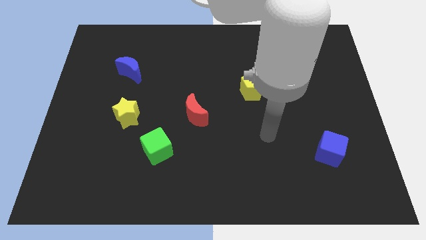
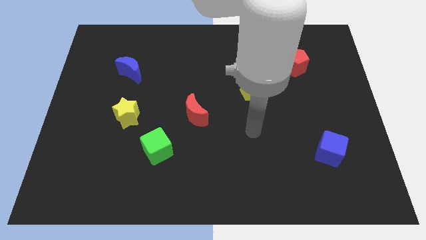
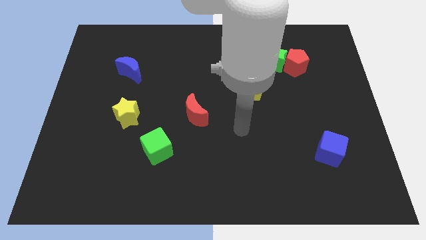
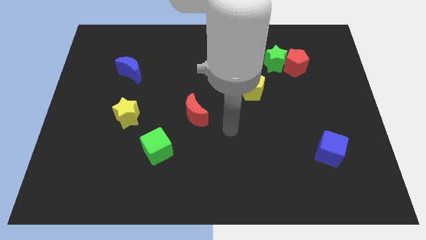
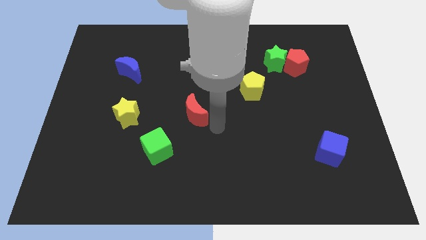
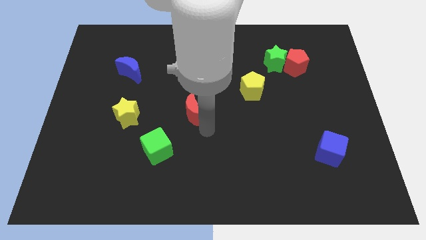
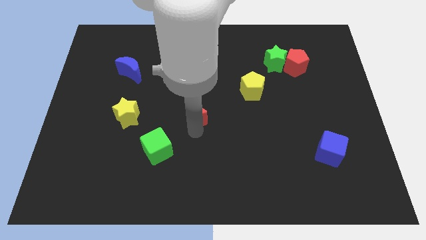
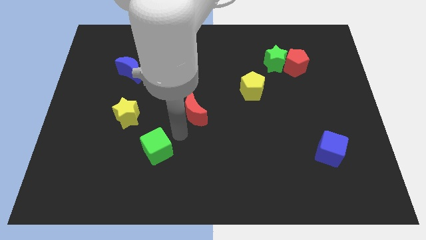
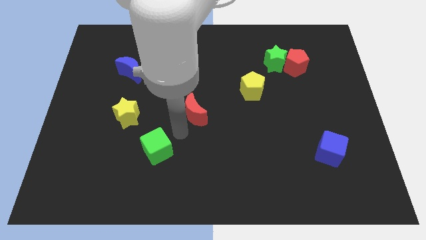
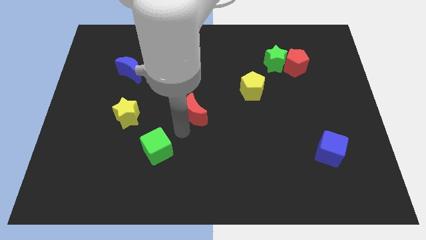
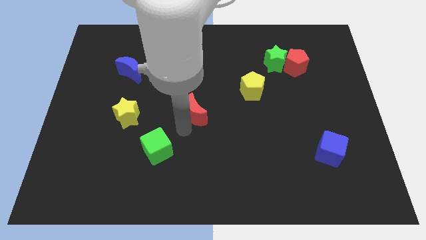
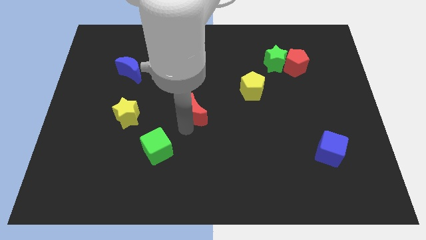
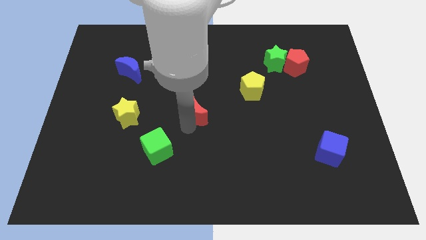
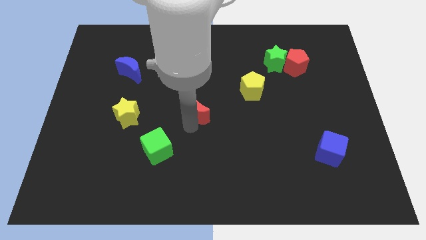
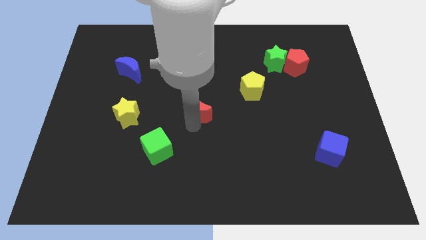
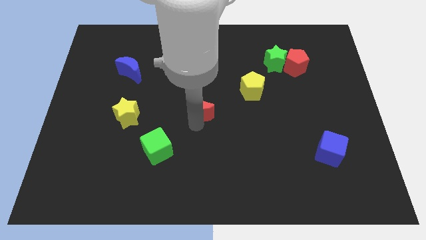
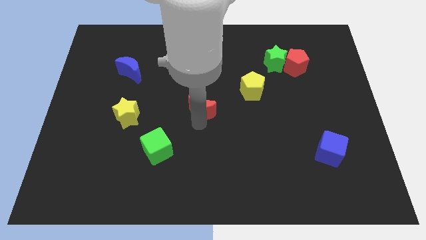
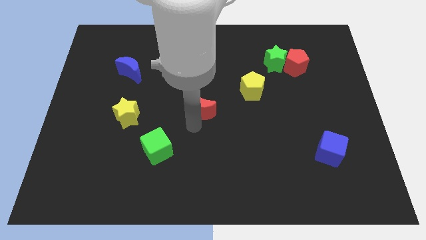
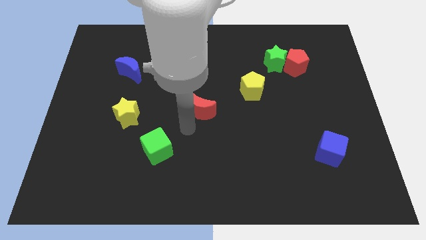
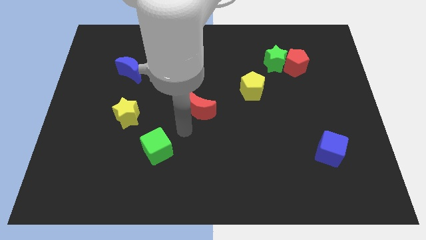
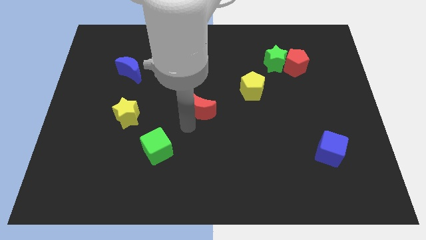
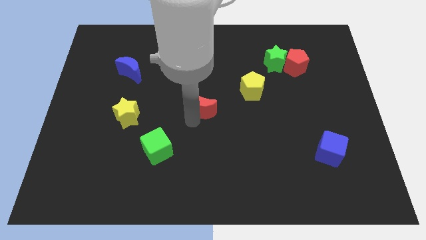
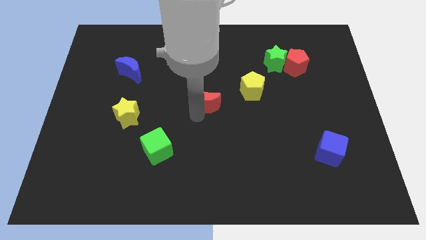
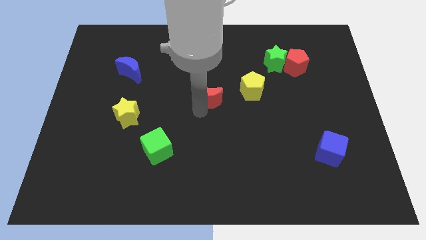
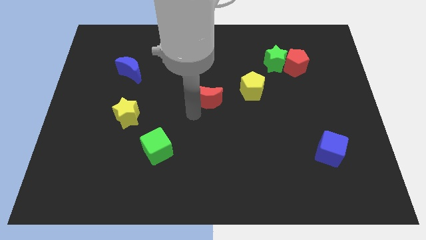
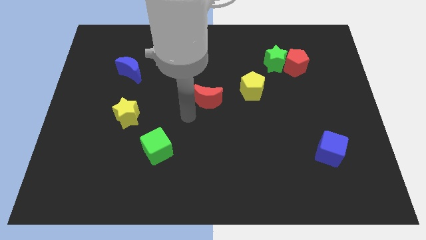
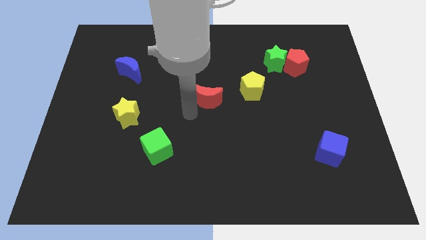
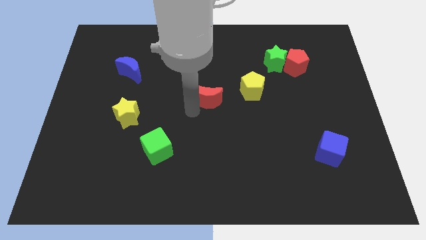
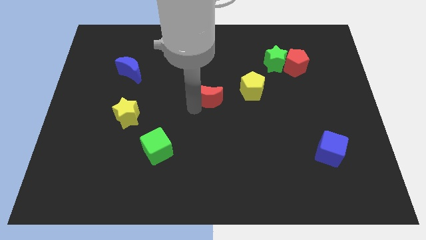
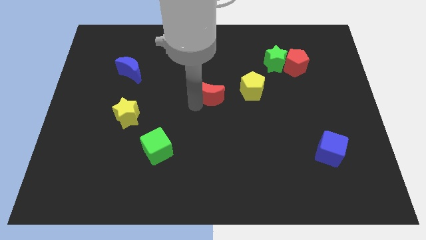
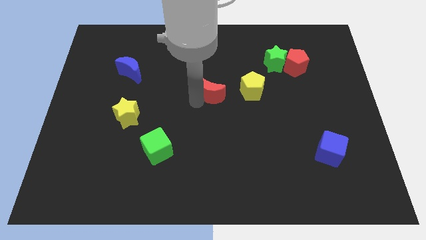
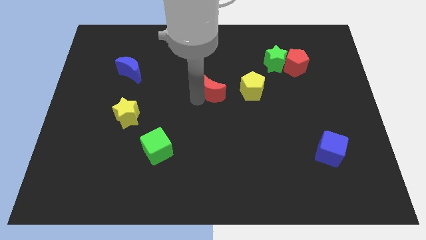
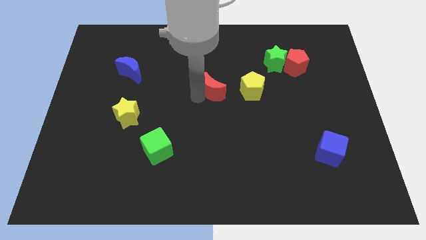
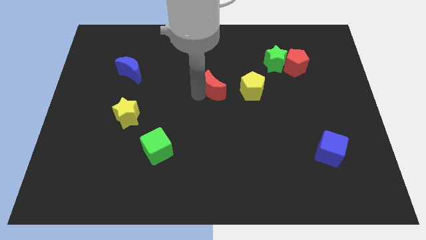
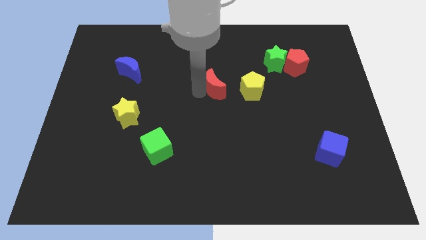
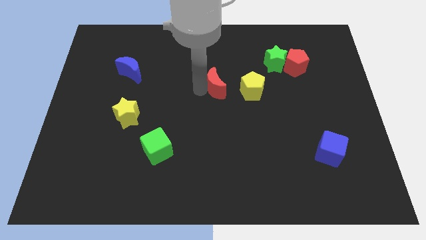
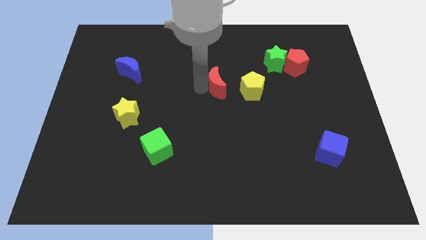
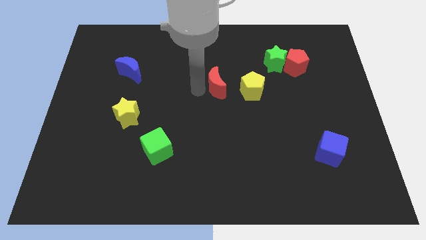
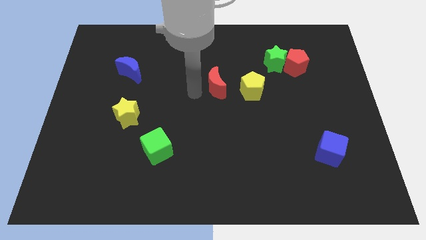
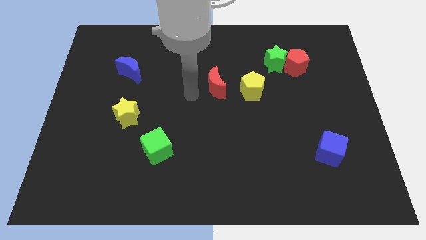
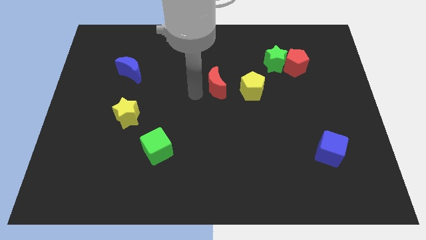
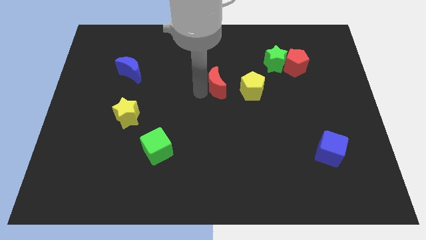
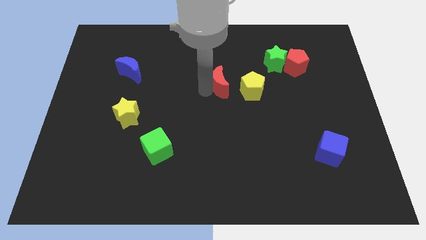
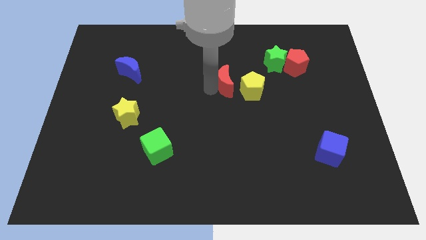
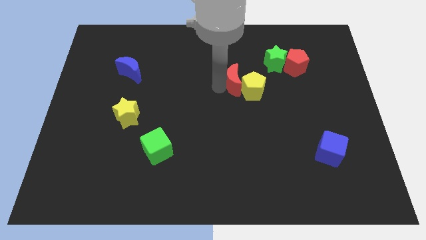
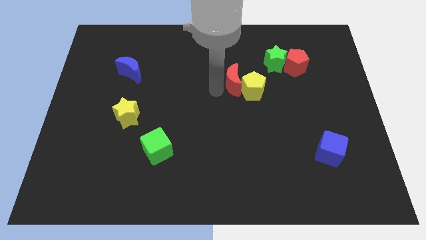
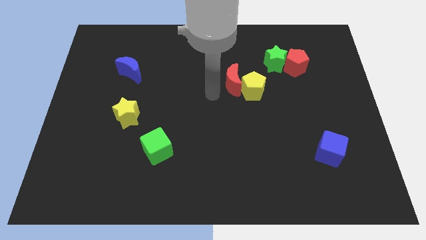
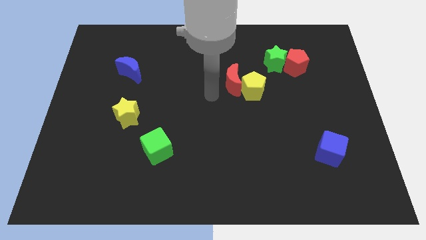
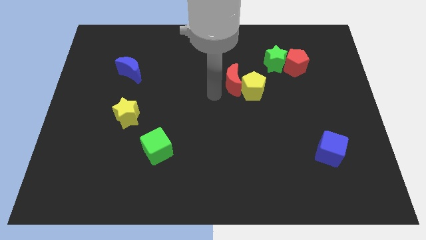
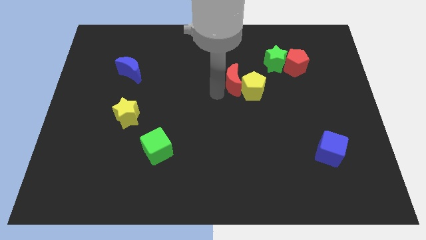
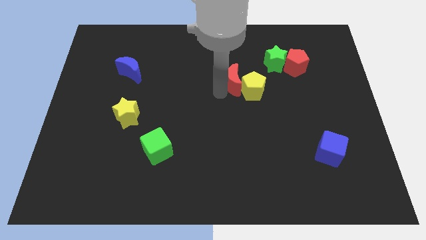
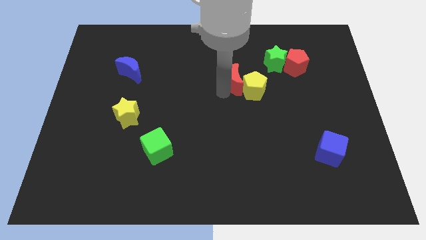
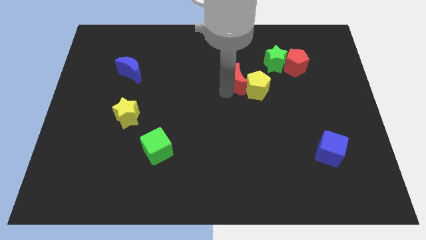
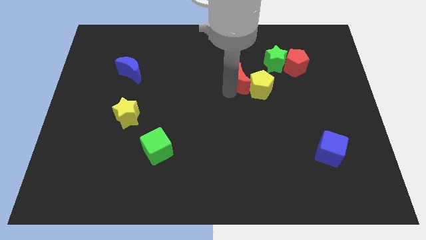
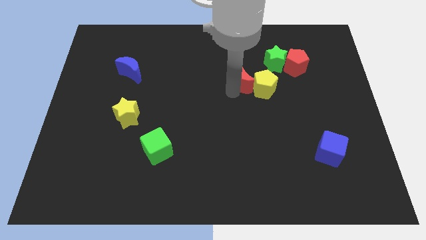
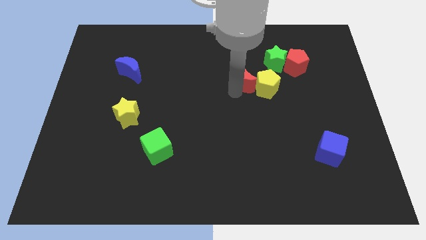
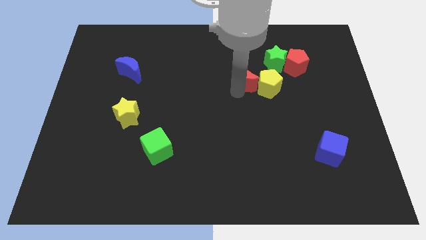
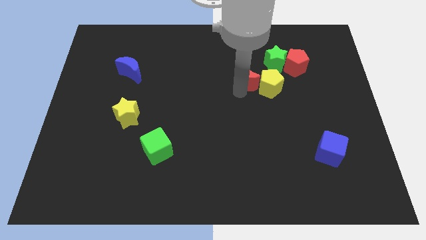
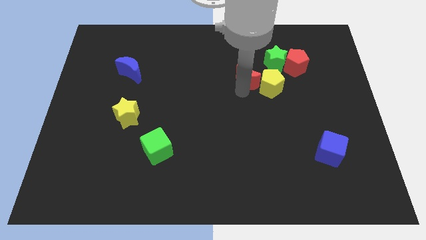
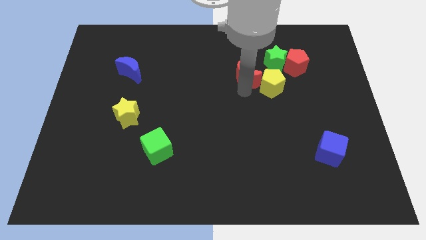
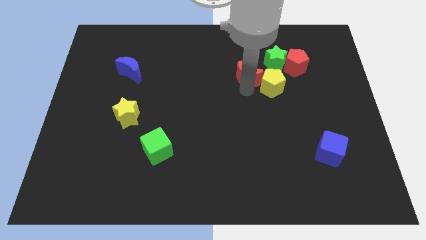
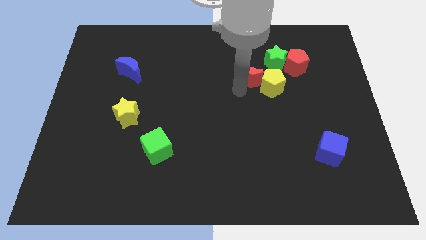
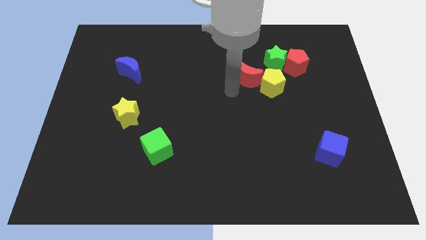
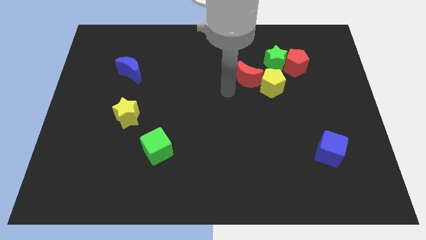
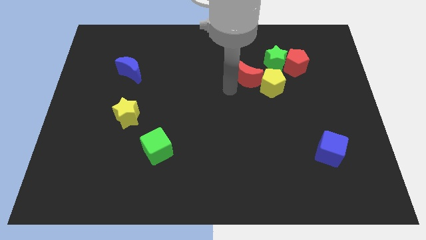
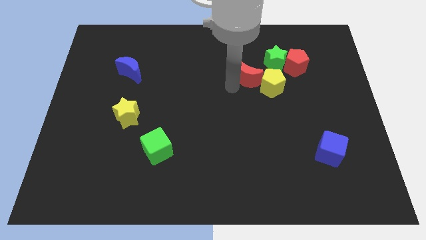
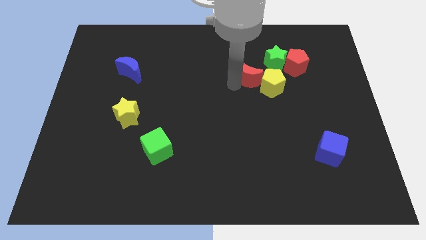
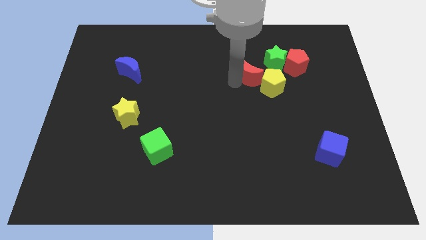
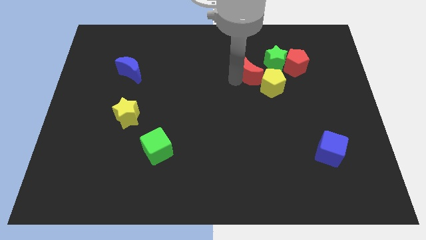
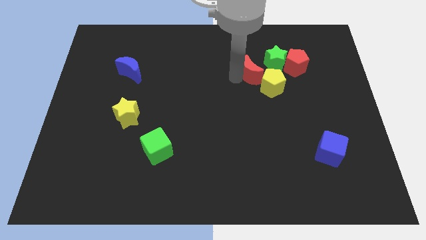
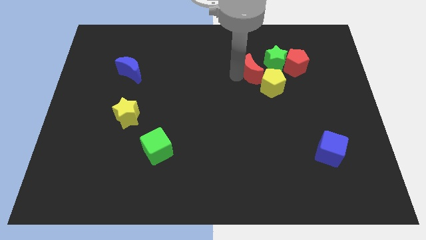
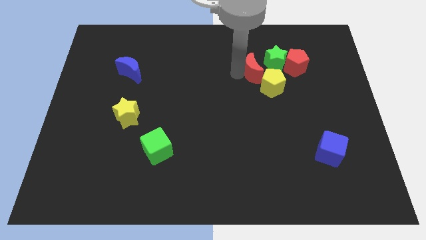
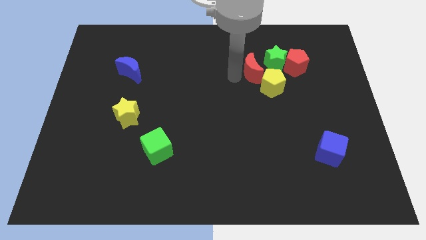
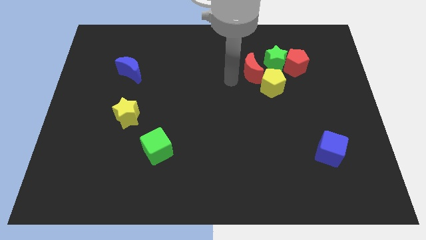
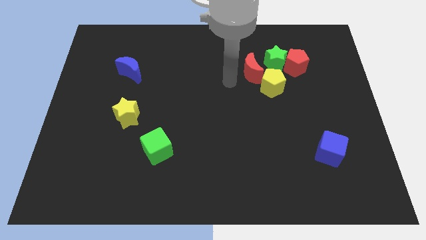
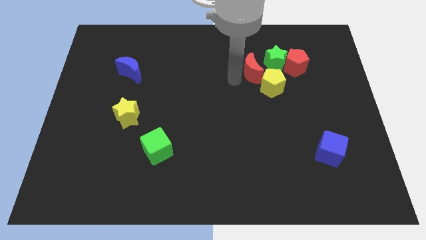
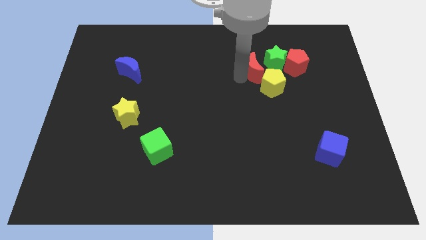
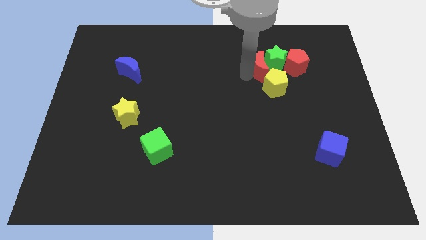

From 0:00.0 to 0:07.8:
move the red moon to the green star
